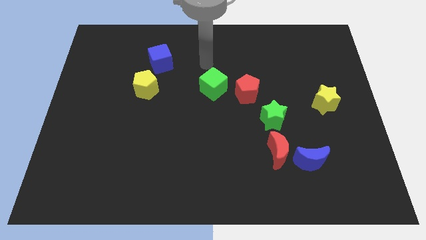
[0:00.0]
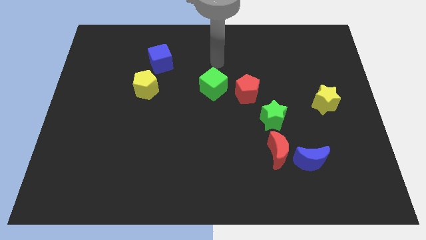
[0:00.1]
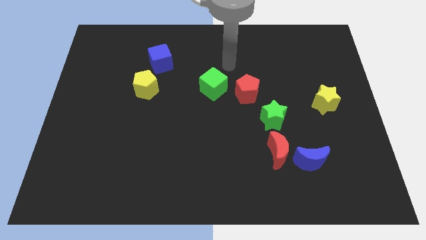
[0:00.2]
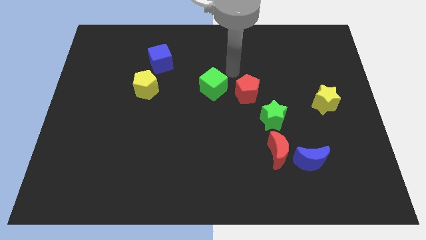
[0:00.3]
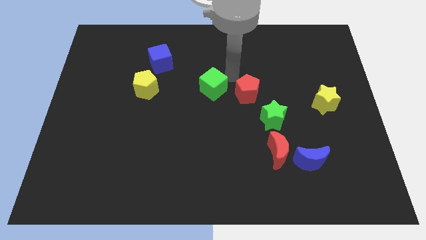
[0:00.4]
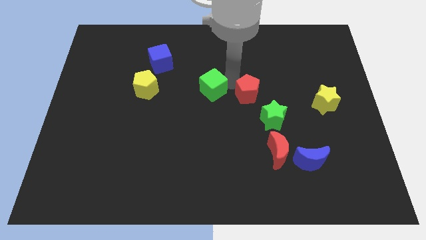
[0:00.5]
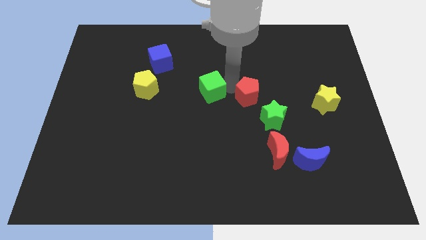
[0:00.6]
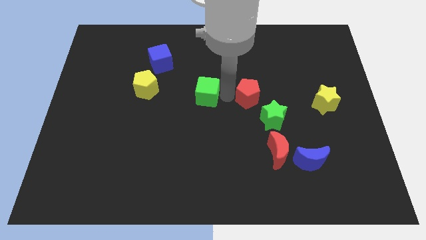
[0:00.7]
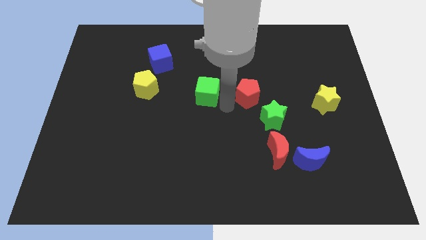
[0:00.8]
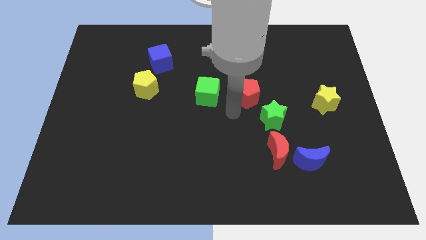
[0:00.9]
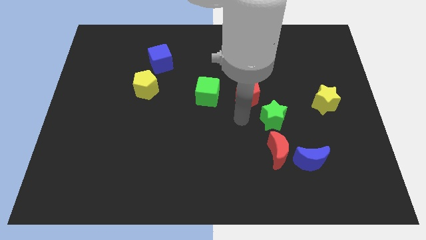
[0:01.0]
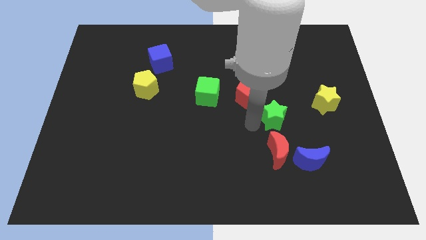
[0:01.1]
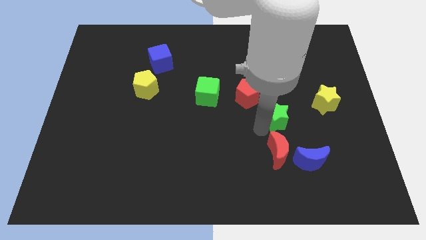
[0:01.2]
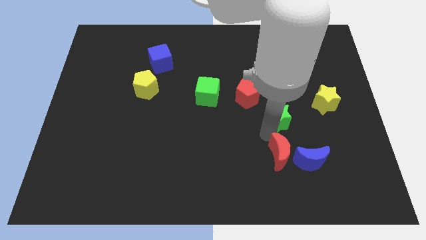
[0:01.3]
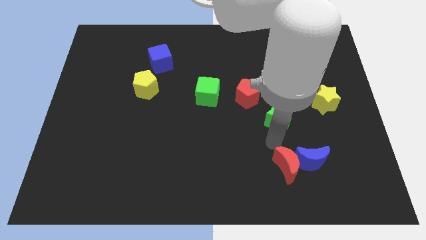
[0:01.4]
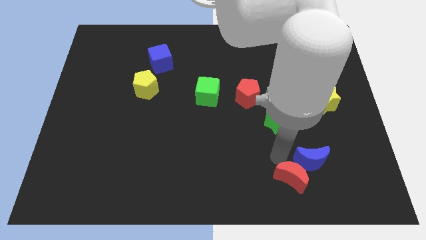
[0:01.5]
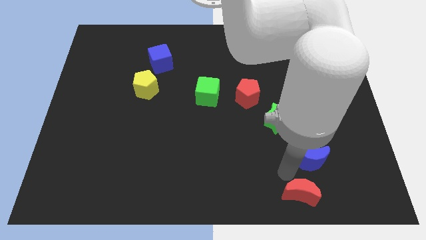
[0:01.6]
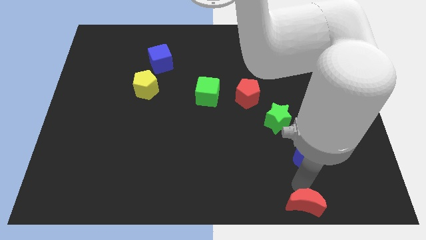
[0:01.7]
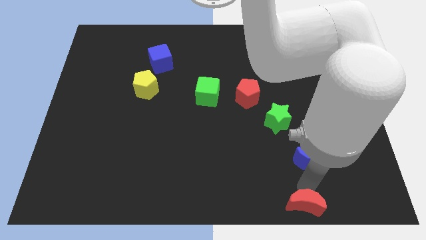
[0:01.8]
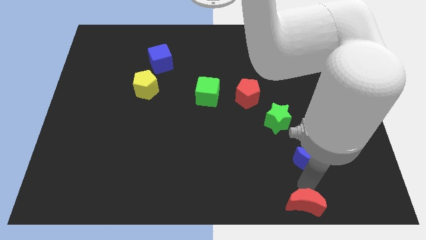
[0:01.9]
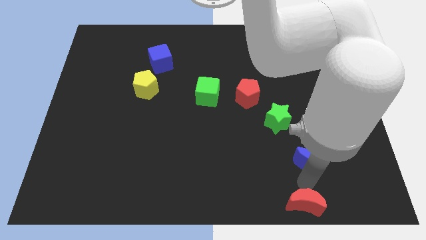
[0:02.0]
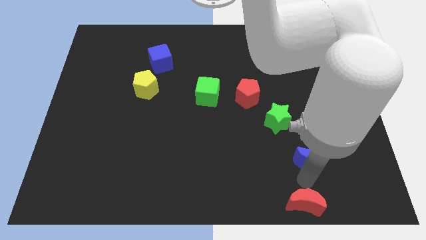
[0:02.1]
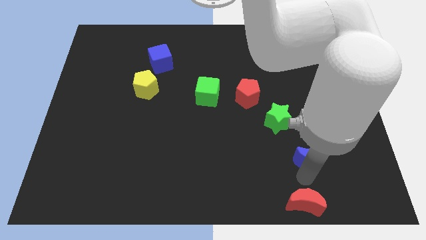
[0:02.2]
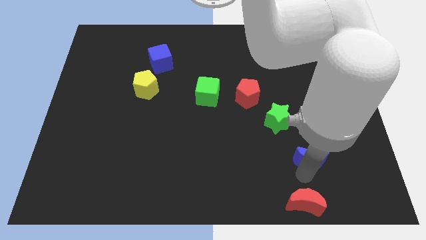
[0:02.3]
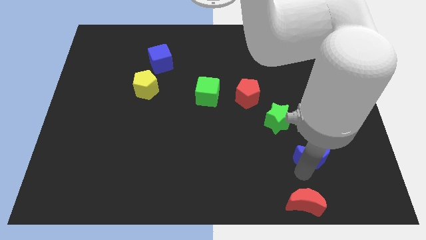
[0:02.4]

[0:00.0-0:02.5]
pull the blue moon apart from the red moon

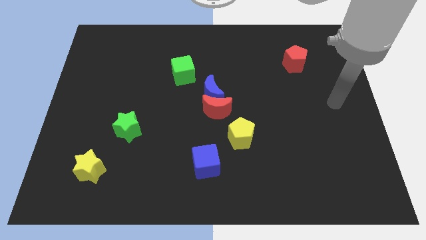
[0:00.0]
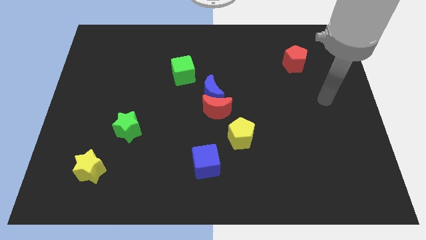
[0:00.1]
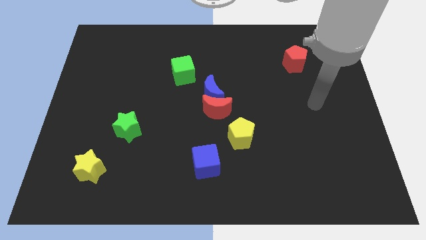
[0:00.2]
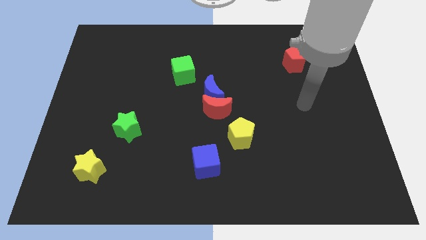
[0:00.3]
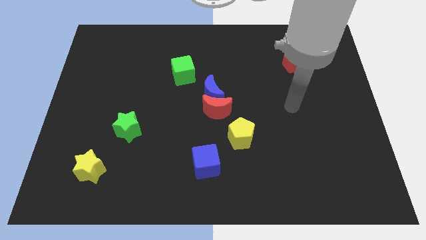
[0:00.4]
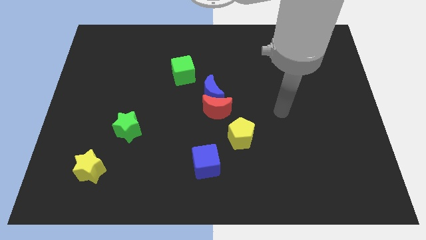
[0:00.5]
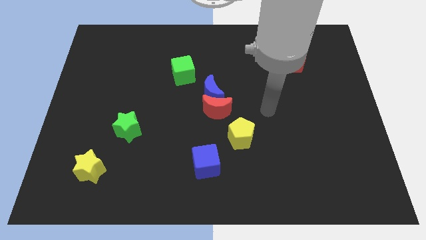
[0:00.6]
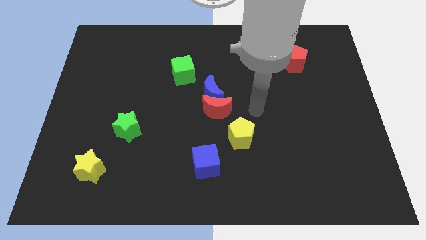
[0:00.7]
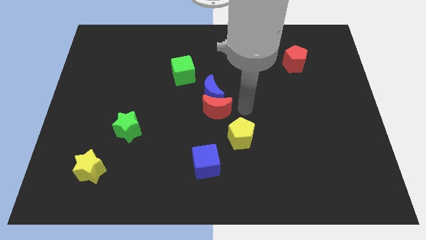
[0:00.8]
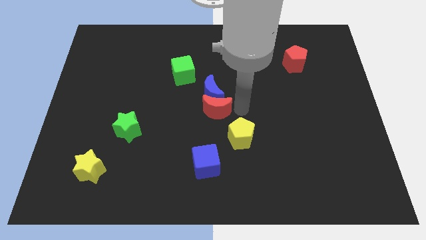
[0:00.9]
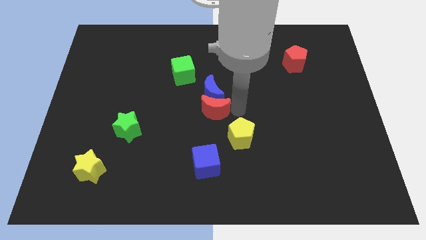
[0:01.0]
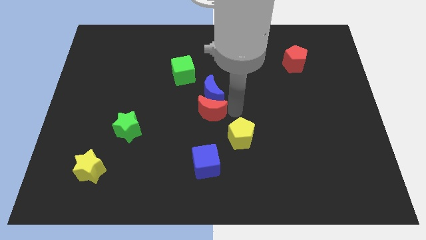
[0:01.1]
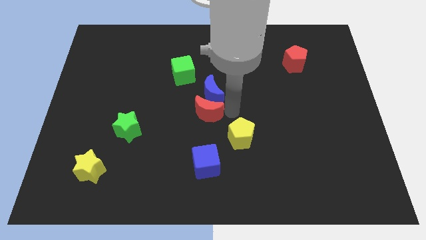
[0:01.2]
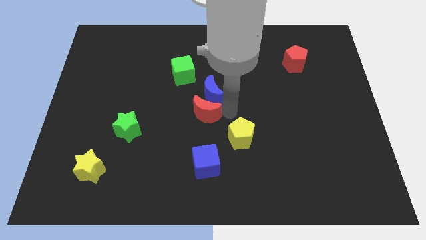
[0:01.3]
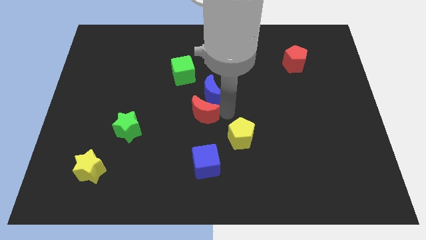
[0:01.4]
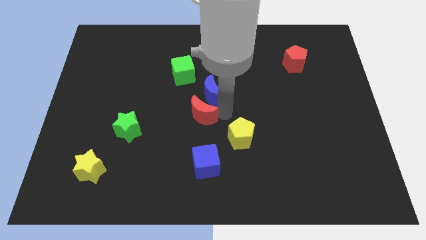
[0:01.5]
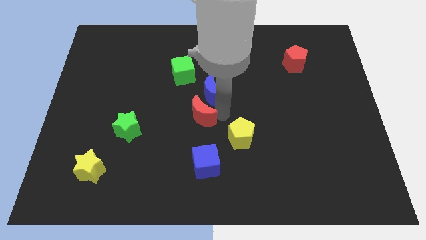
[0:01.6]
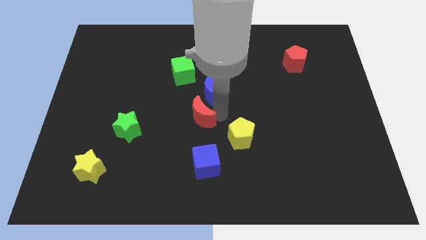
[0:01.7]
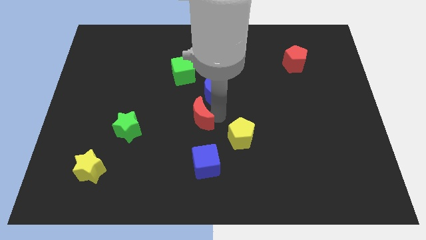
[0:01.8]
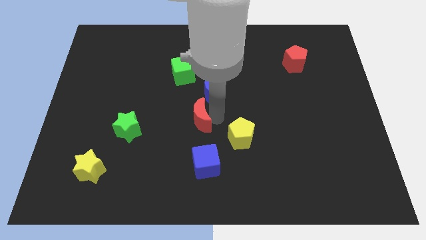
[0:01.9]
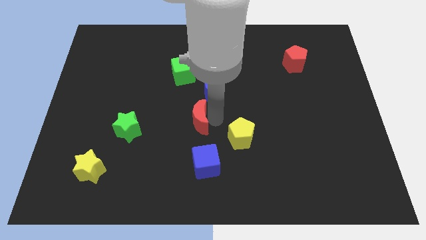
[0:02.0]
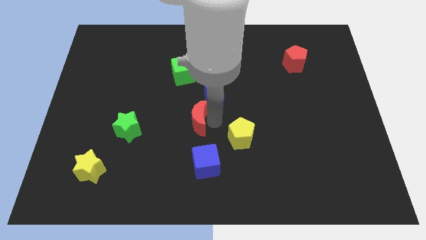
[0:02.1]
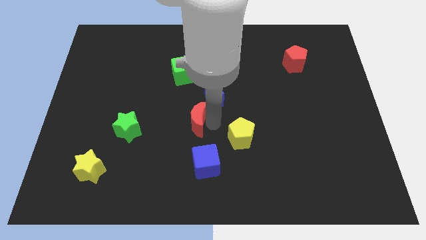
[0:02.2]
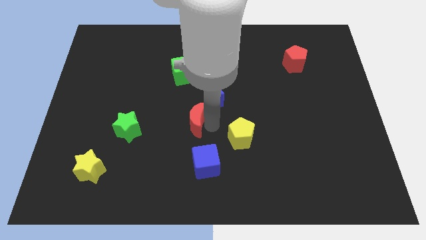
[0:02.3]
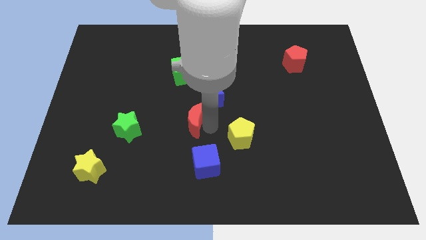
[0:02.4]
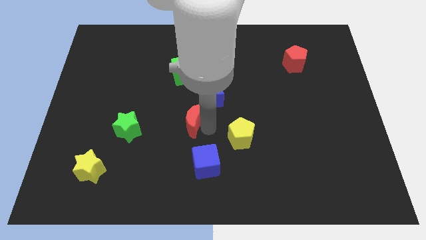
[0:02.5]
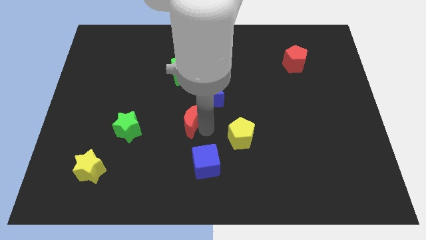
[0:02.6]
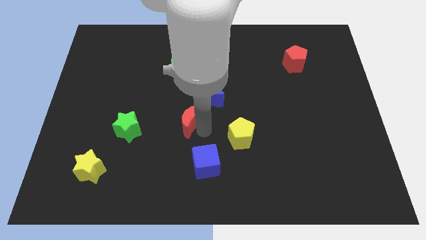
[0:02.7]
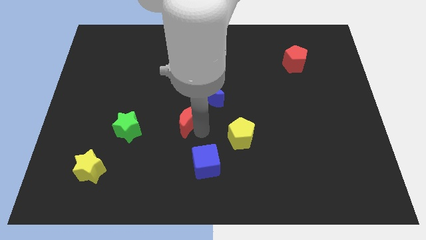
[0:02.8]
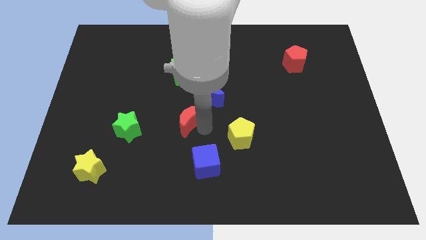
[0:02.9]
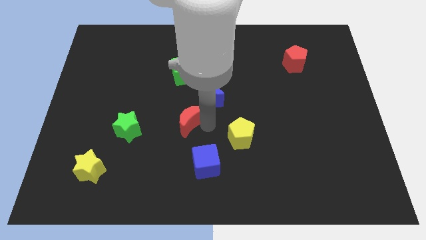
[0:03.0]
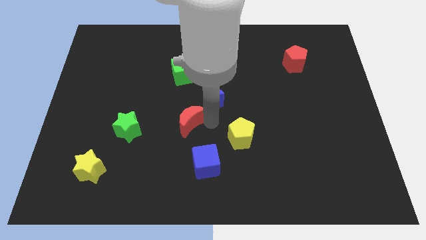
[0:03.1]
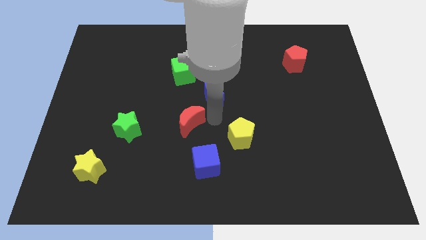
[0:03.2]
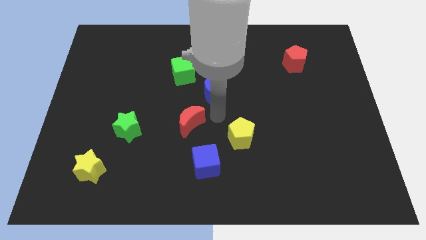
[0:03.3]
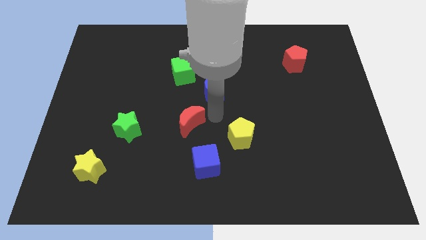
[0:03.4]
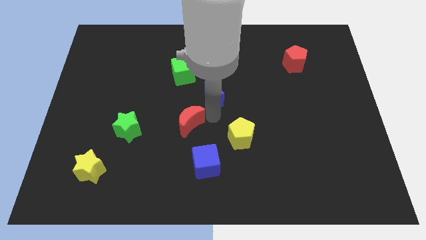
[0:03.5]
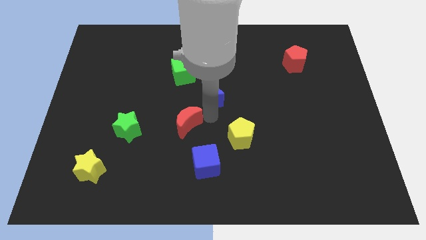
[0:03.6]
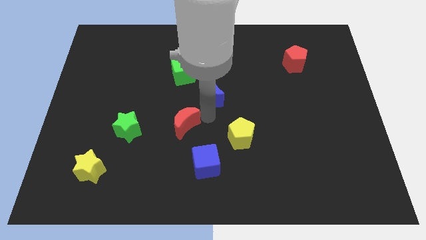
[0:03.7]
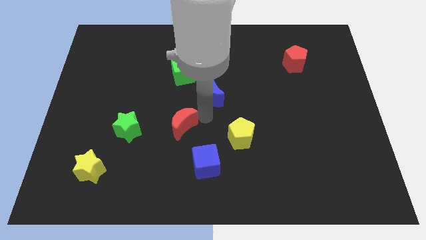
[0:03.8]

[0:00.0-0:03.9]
separate the red moon from the blue moon and yellow pentagon

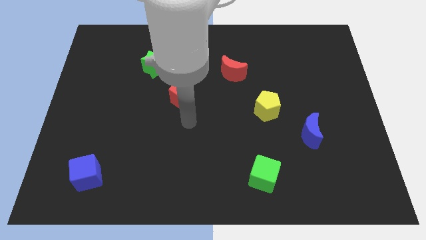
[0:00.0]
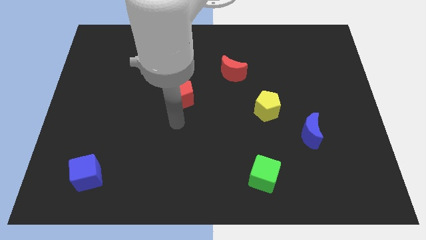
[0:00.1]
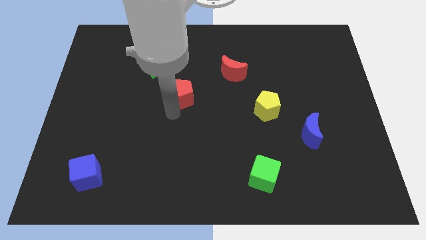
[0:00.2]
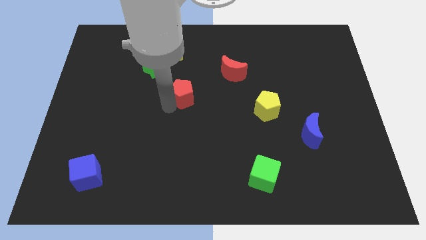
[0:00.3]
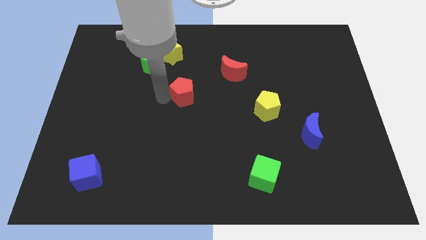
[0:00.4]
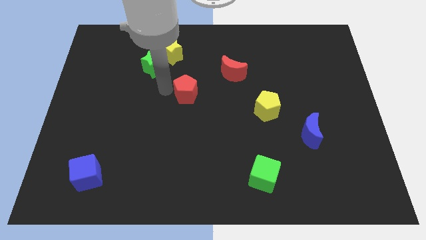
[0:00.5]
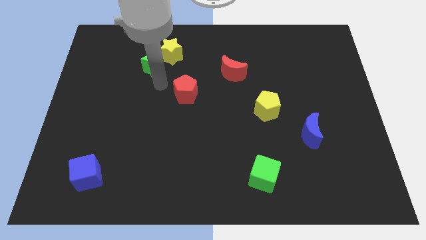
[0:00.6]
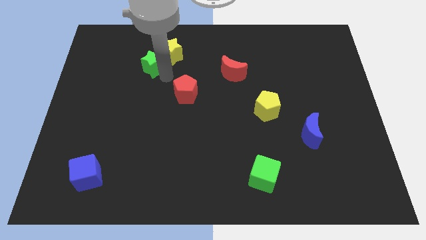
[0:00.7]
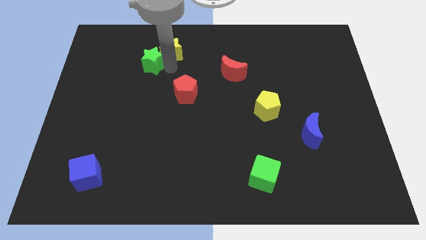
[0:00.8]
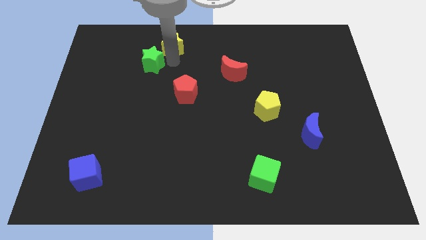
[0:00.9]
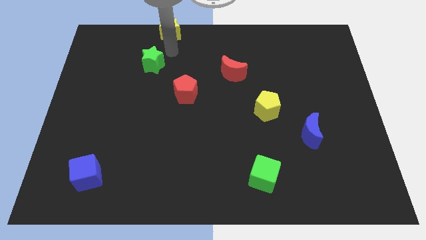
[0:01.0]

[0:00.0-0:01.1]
separate the green star from the yellow star

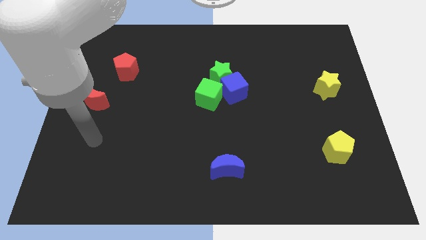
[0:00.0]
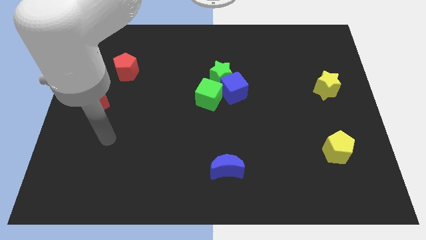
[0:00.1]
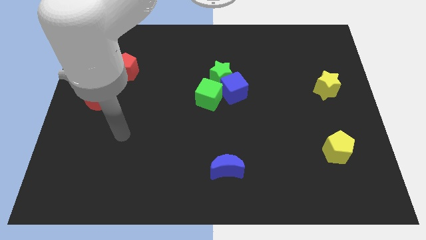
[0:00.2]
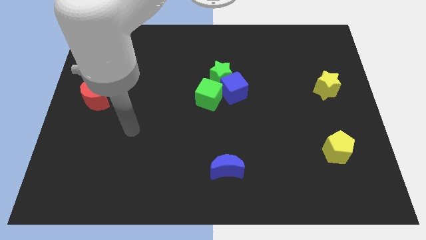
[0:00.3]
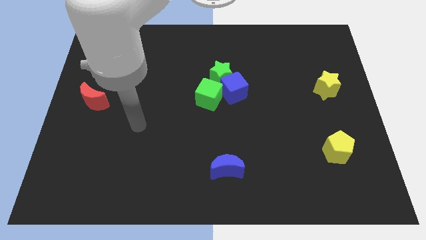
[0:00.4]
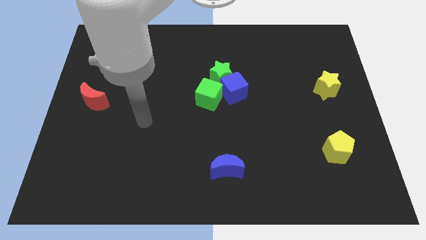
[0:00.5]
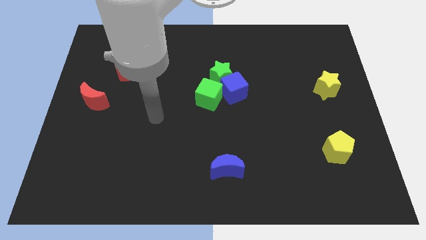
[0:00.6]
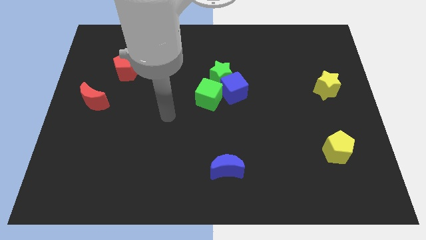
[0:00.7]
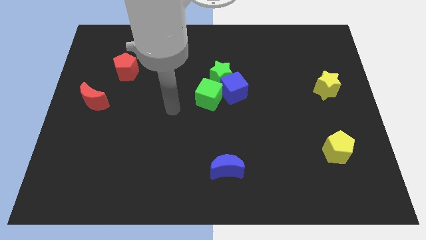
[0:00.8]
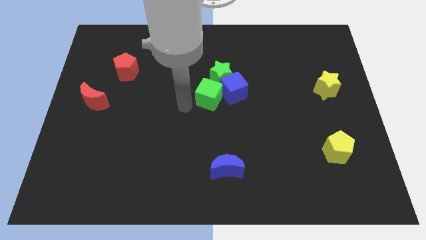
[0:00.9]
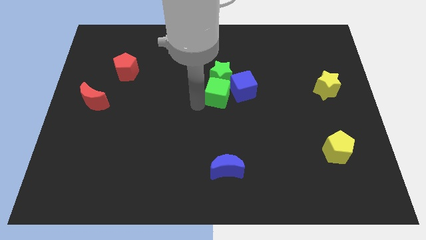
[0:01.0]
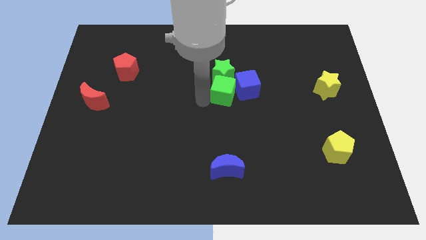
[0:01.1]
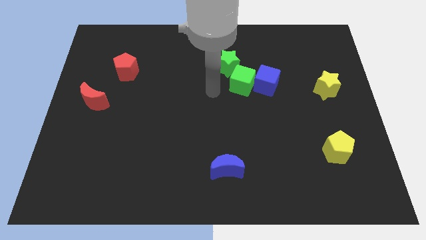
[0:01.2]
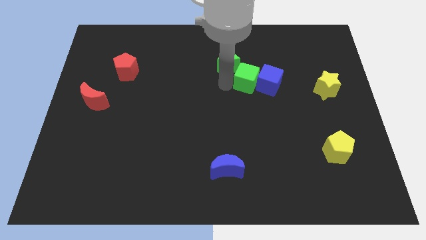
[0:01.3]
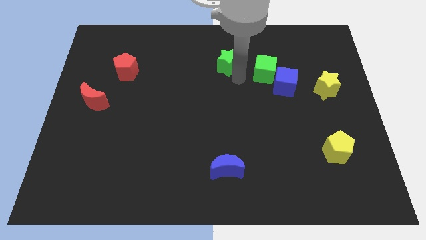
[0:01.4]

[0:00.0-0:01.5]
separate the blue cube from the green star and green cube

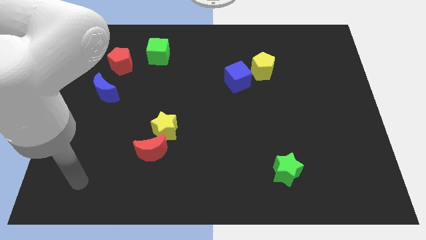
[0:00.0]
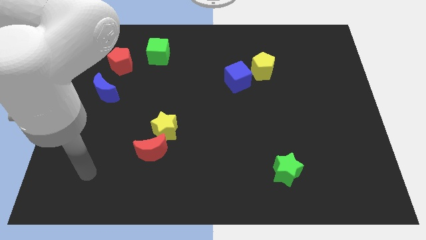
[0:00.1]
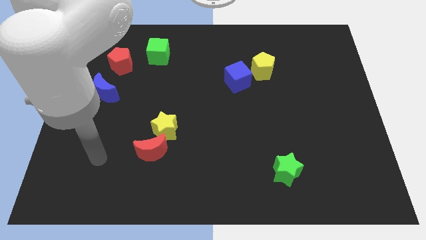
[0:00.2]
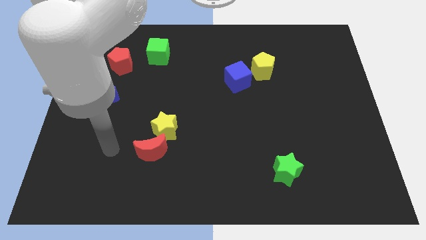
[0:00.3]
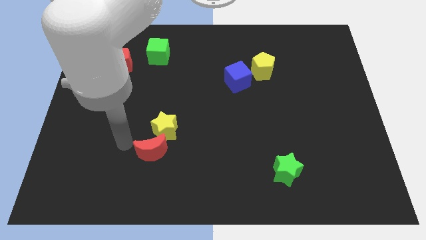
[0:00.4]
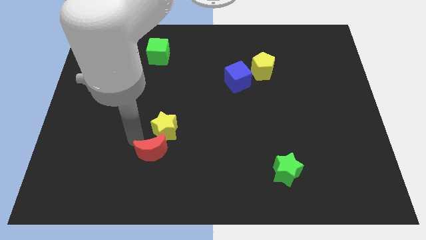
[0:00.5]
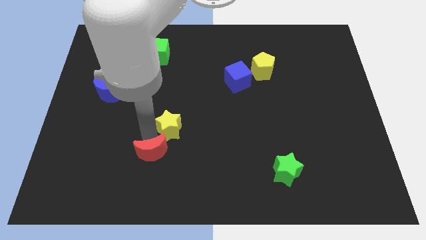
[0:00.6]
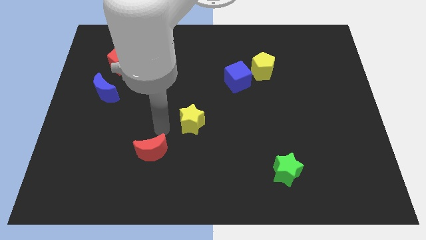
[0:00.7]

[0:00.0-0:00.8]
move the red moon away from the yellow star
